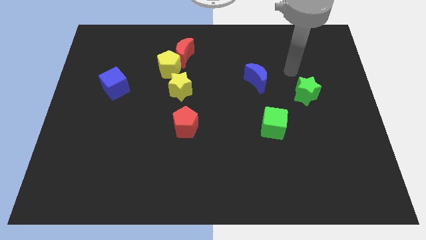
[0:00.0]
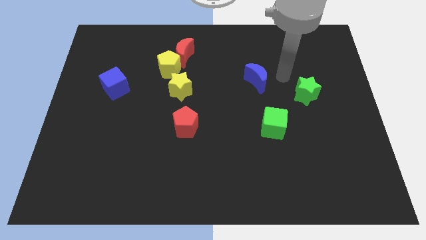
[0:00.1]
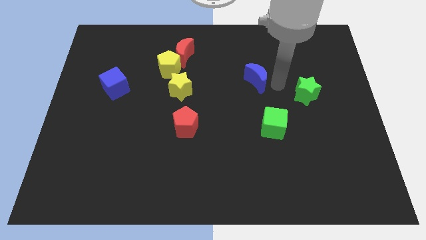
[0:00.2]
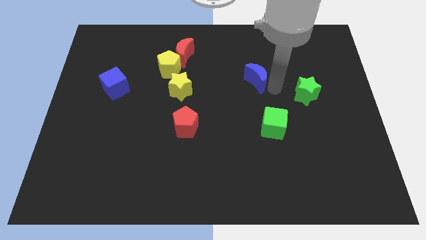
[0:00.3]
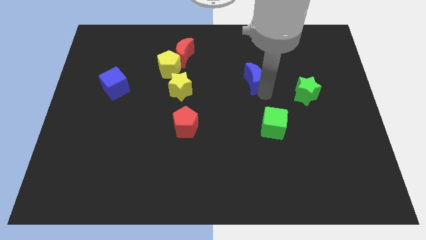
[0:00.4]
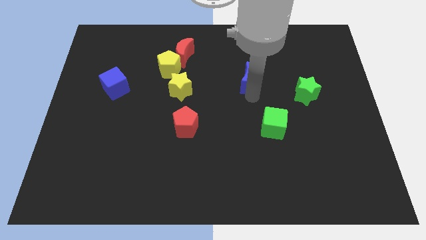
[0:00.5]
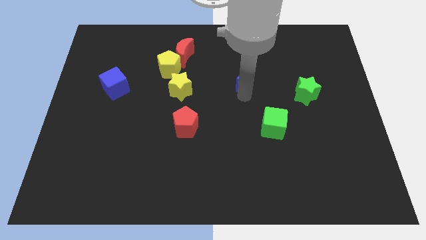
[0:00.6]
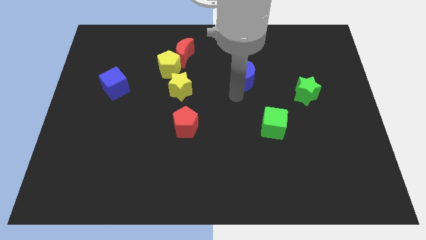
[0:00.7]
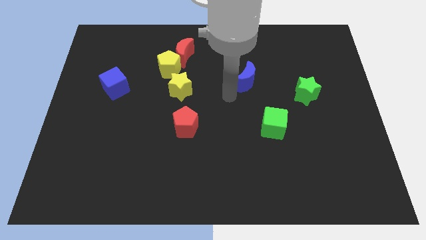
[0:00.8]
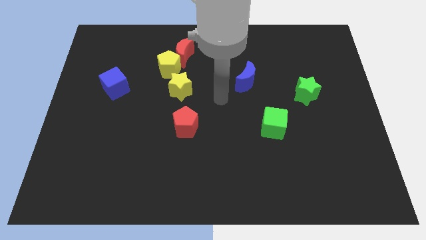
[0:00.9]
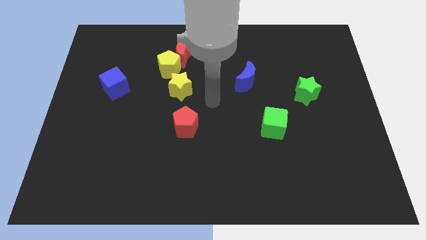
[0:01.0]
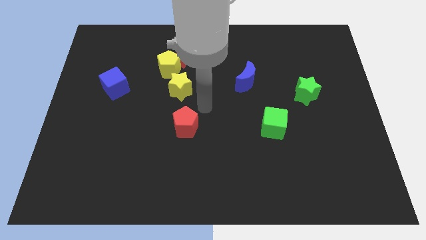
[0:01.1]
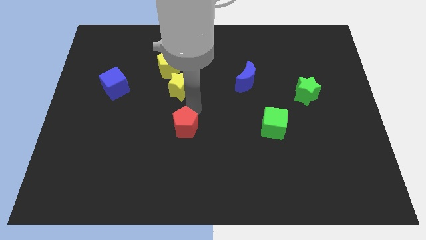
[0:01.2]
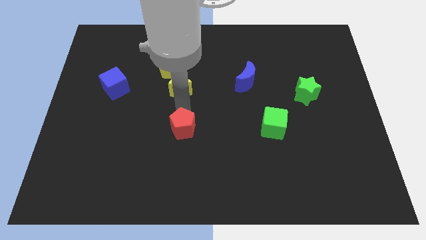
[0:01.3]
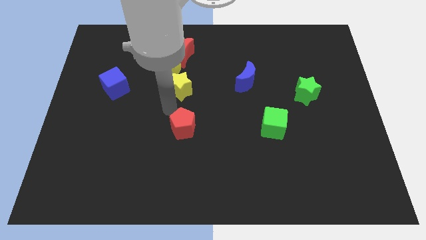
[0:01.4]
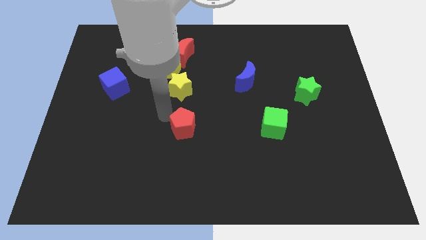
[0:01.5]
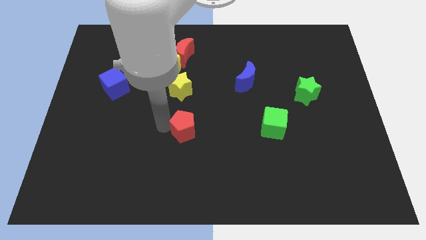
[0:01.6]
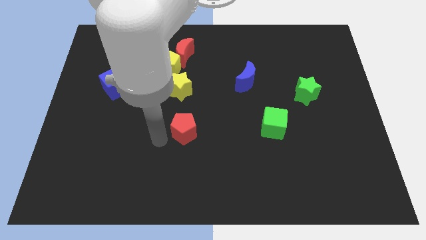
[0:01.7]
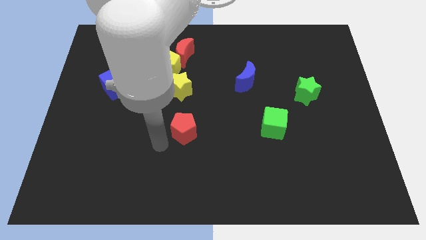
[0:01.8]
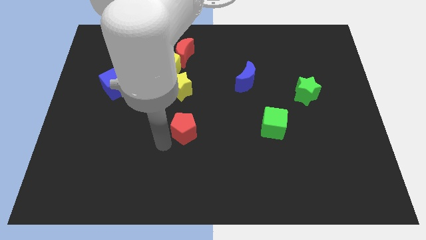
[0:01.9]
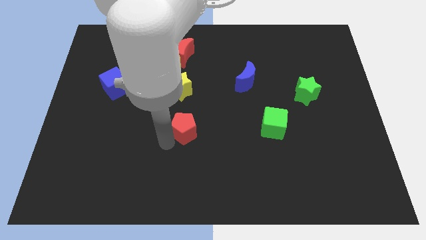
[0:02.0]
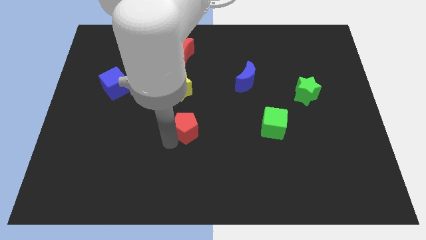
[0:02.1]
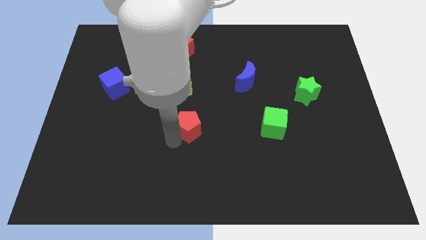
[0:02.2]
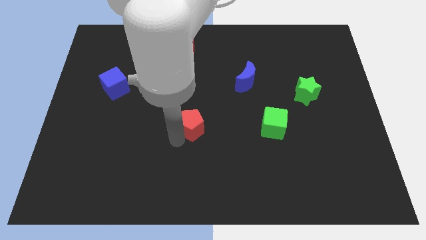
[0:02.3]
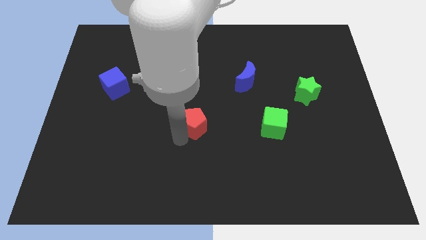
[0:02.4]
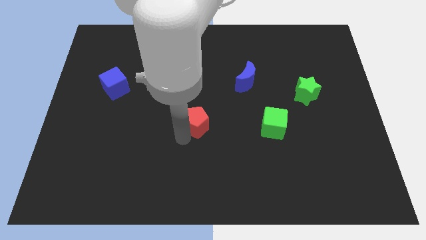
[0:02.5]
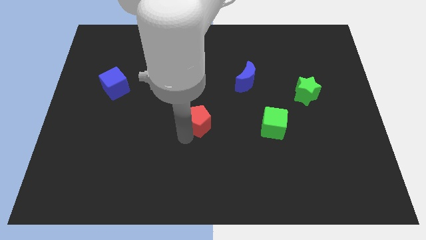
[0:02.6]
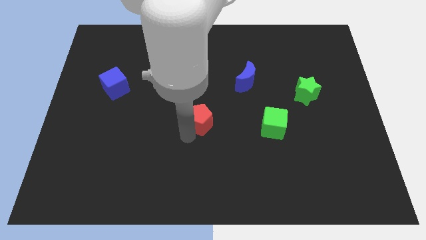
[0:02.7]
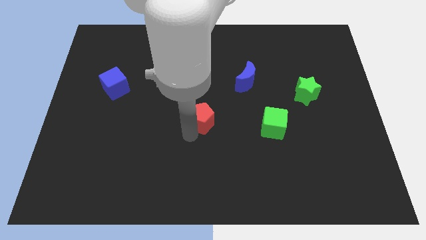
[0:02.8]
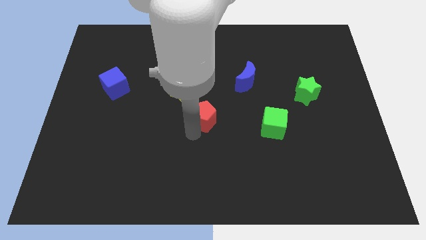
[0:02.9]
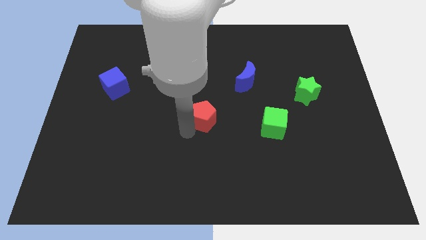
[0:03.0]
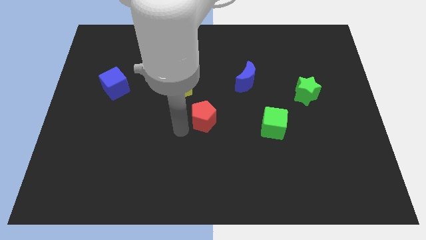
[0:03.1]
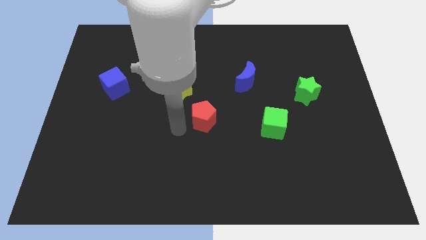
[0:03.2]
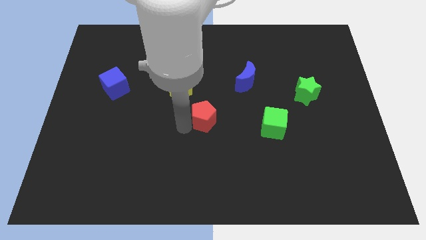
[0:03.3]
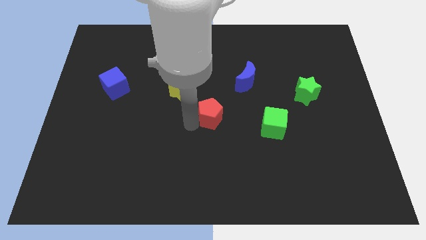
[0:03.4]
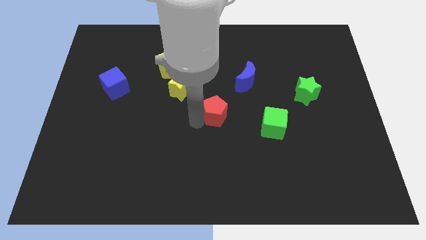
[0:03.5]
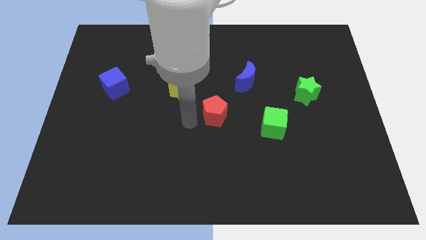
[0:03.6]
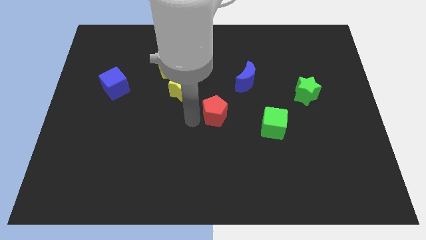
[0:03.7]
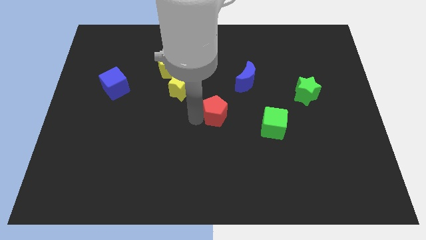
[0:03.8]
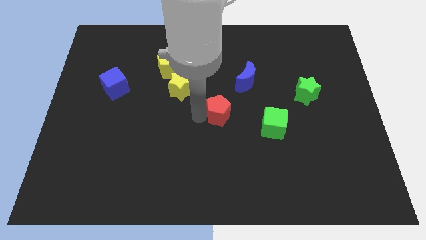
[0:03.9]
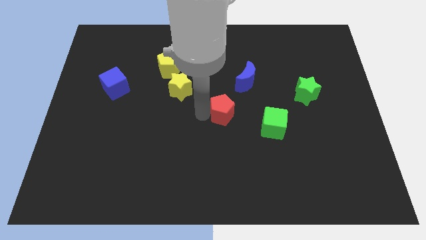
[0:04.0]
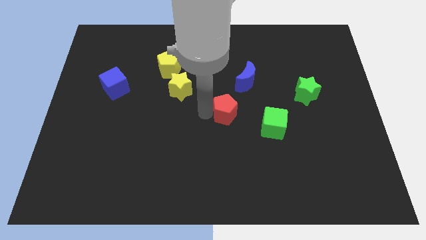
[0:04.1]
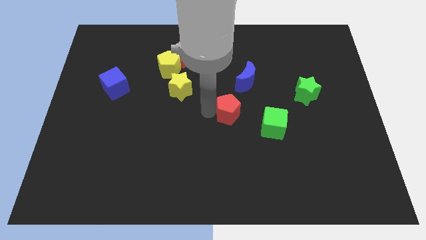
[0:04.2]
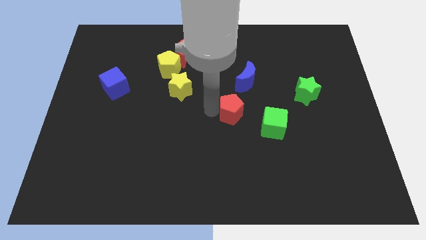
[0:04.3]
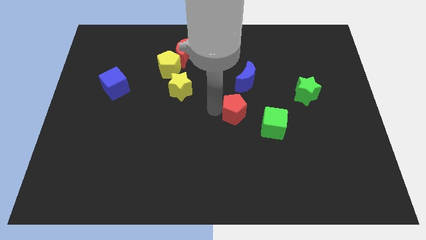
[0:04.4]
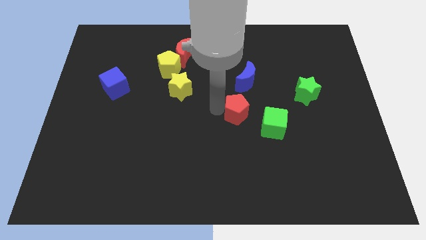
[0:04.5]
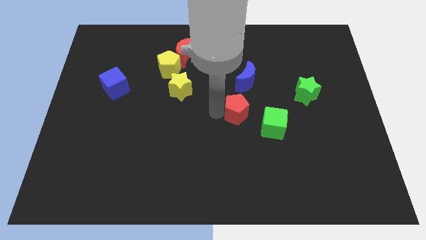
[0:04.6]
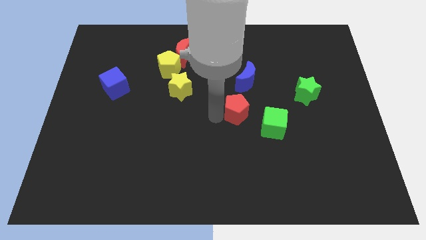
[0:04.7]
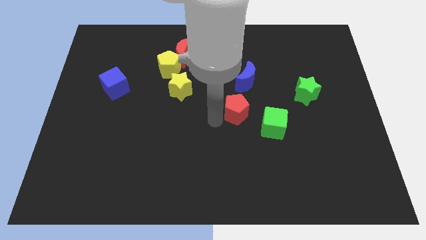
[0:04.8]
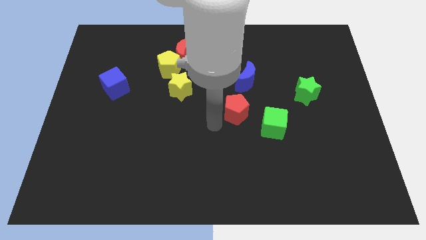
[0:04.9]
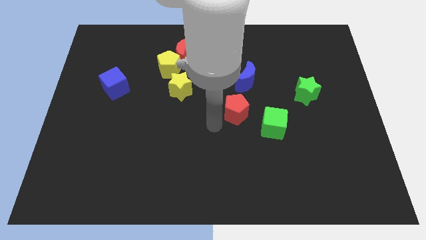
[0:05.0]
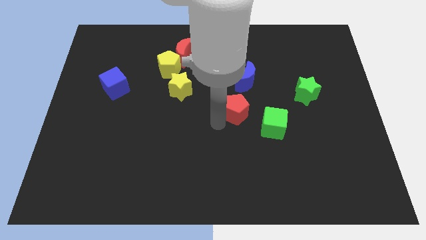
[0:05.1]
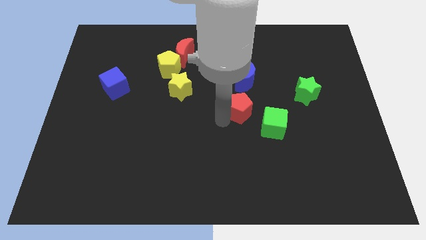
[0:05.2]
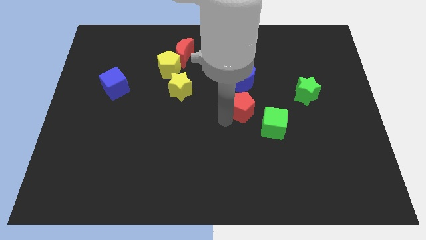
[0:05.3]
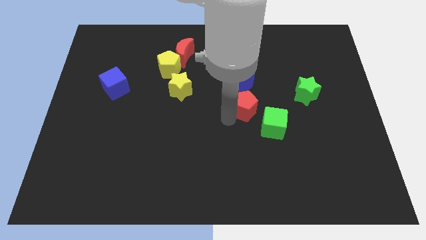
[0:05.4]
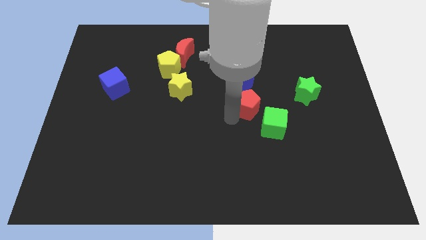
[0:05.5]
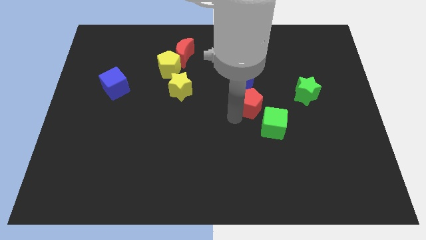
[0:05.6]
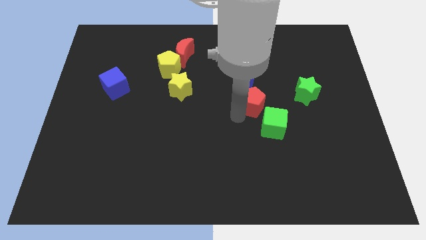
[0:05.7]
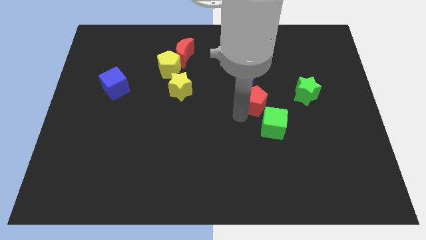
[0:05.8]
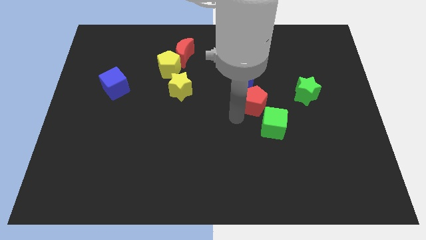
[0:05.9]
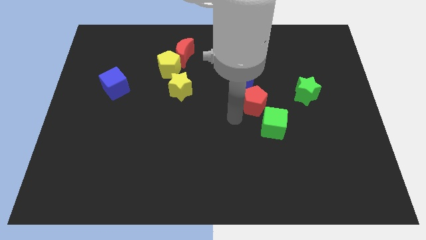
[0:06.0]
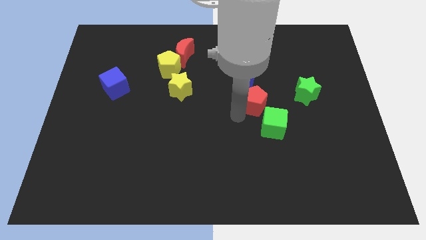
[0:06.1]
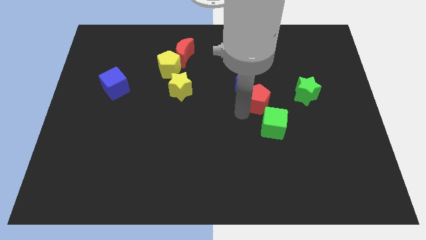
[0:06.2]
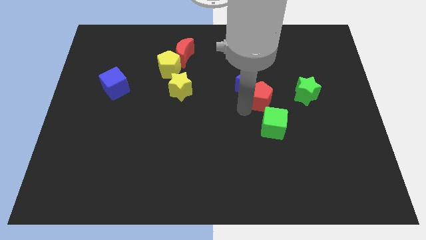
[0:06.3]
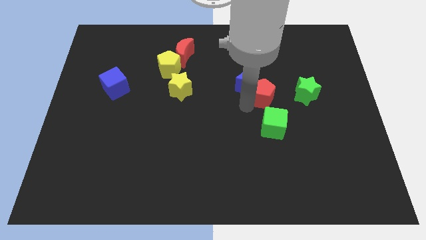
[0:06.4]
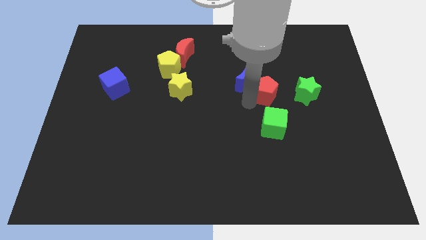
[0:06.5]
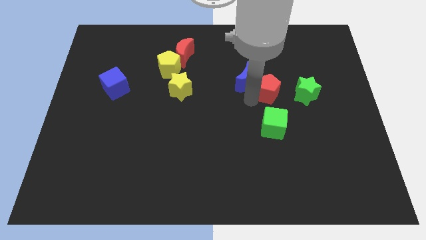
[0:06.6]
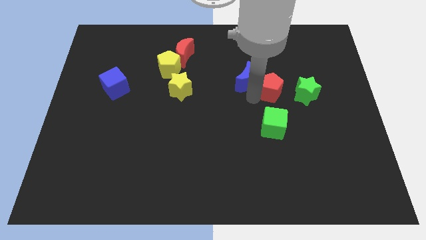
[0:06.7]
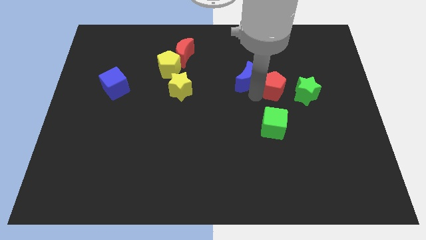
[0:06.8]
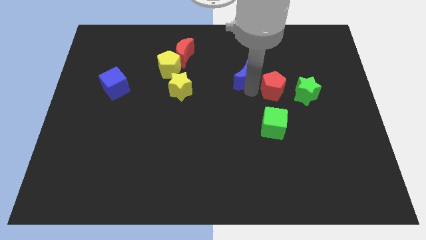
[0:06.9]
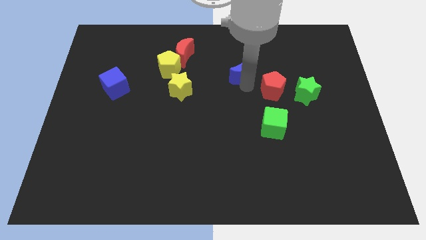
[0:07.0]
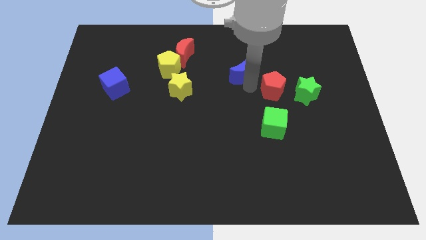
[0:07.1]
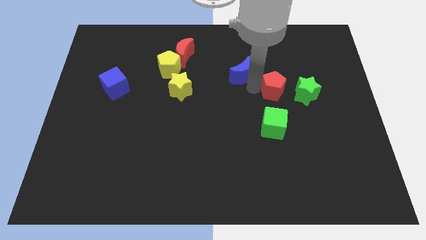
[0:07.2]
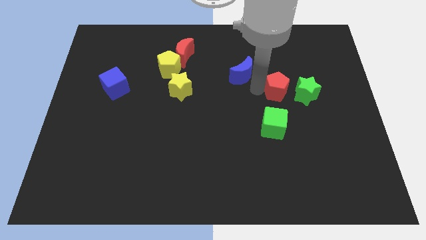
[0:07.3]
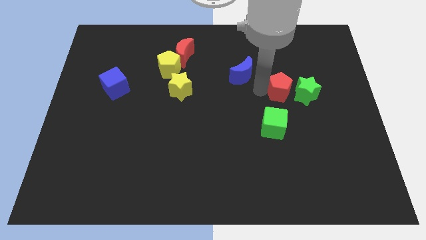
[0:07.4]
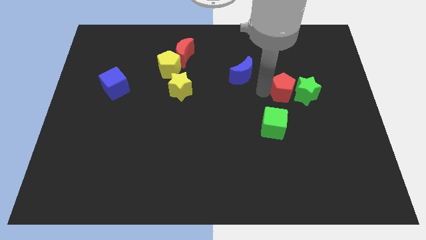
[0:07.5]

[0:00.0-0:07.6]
put the red pentagon next to the green star
